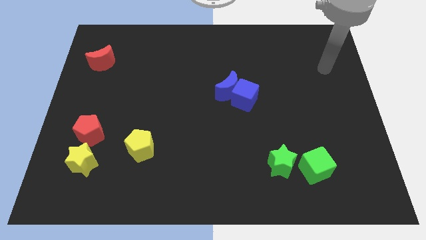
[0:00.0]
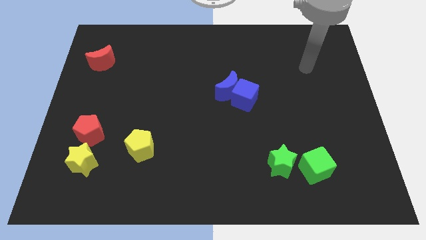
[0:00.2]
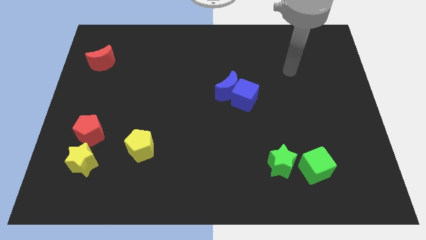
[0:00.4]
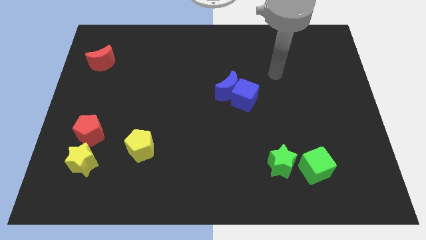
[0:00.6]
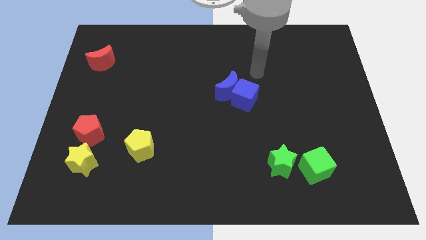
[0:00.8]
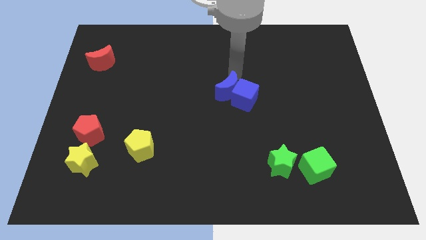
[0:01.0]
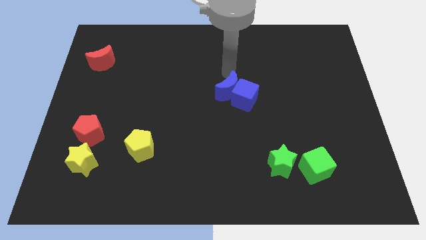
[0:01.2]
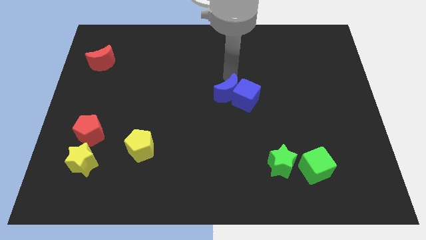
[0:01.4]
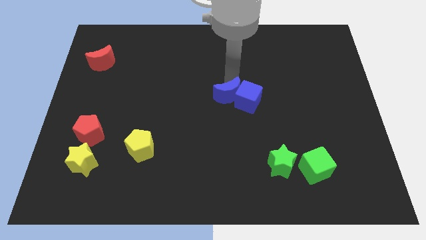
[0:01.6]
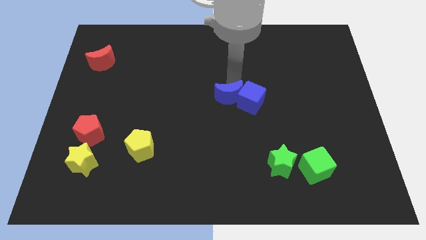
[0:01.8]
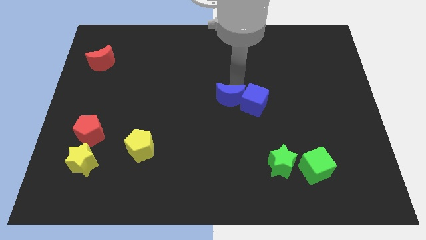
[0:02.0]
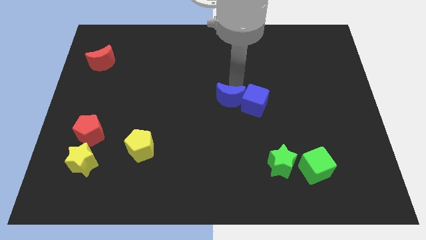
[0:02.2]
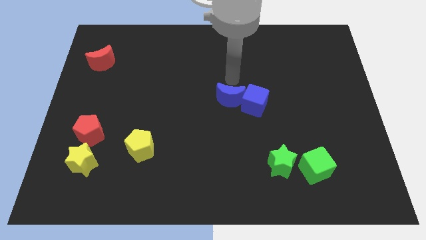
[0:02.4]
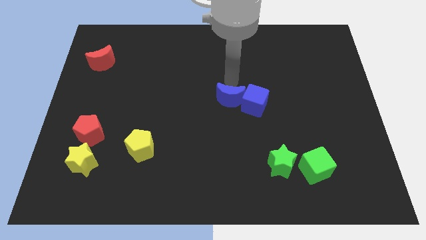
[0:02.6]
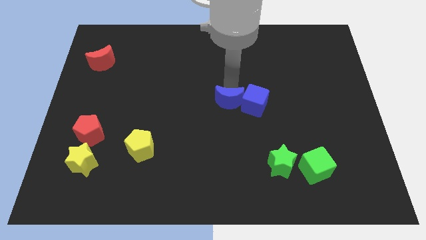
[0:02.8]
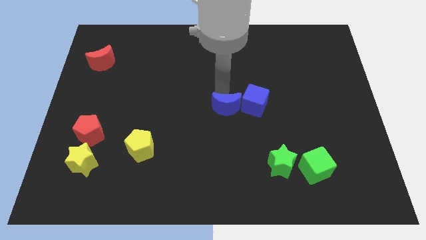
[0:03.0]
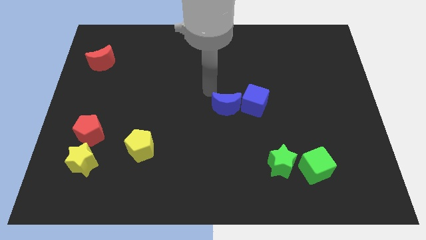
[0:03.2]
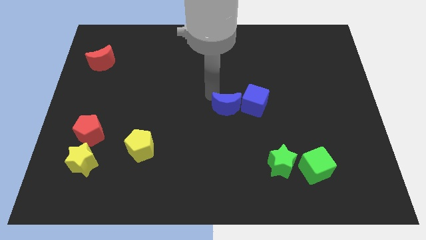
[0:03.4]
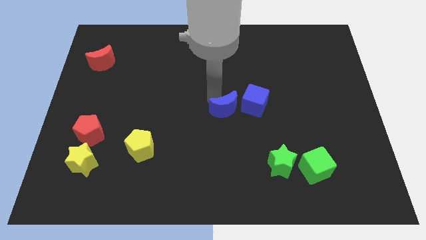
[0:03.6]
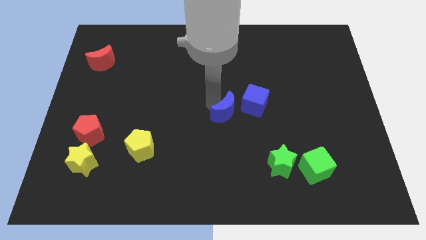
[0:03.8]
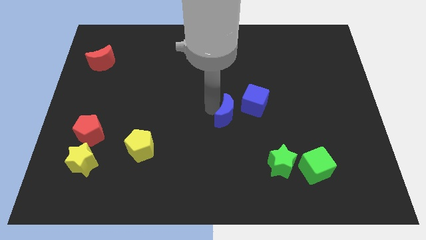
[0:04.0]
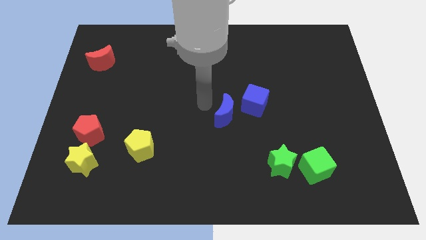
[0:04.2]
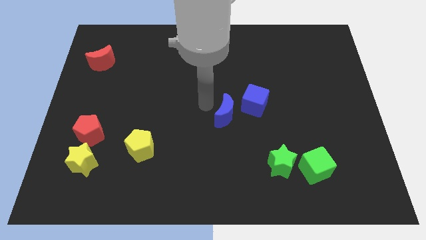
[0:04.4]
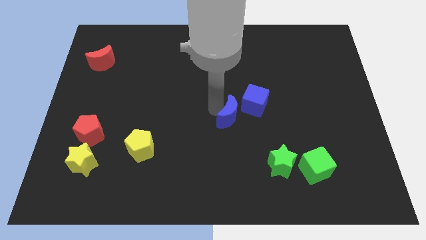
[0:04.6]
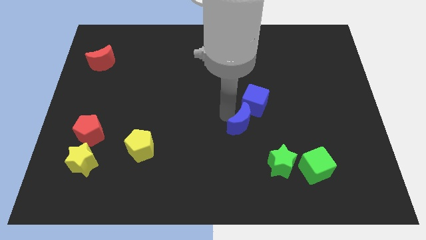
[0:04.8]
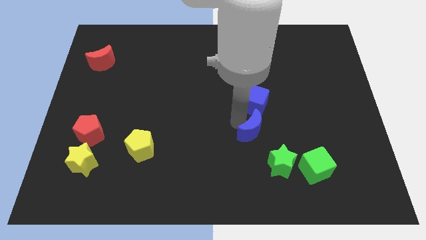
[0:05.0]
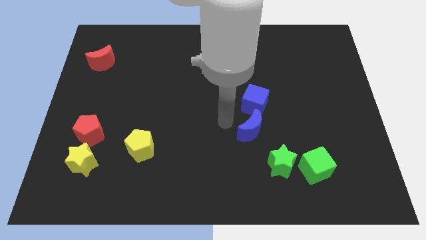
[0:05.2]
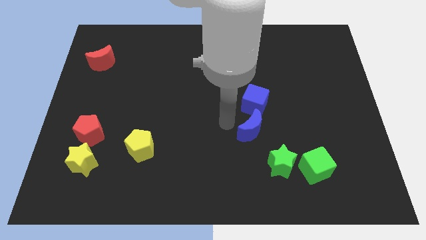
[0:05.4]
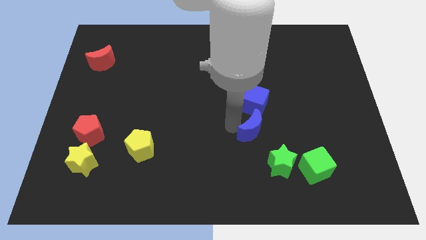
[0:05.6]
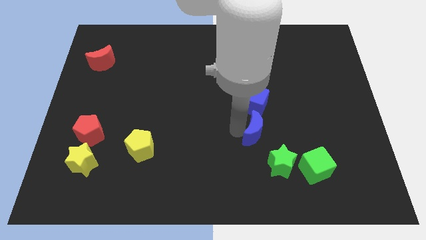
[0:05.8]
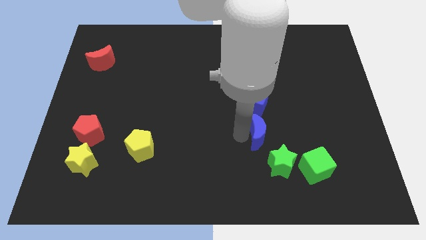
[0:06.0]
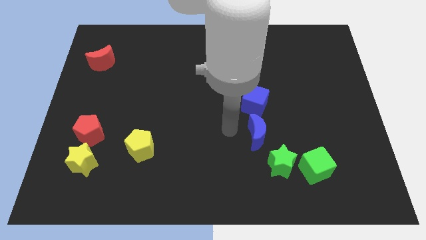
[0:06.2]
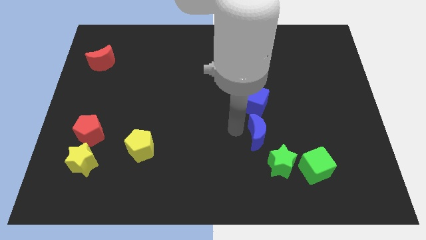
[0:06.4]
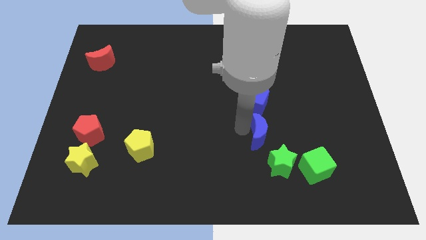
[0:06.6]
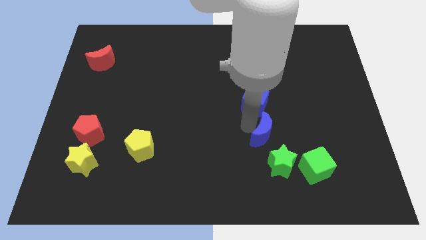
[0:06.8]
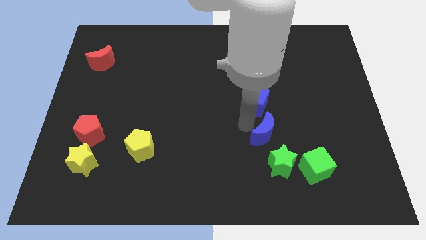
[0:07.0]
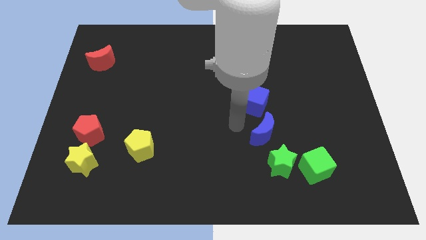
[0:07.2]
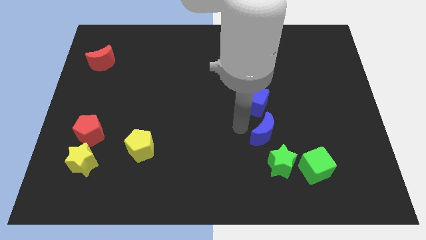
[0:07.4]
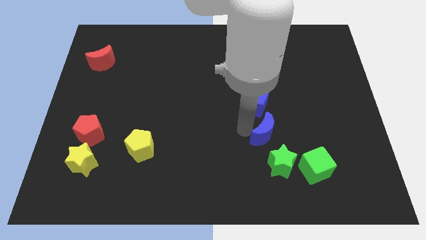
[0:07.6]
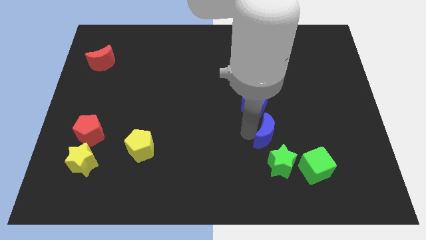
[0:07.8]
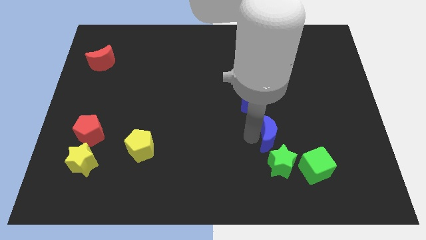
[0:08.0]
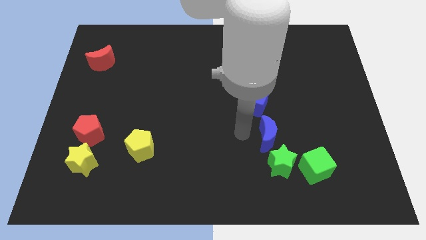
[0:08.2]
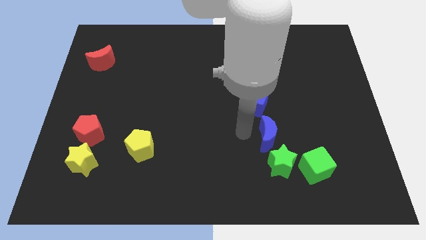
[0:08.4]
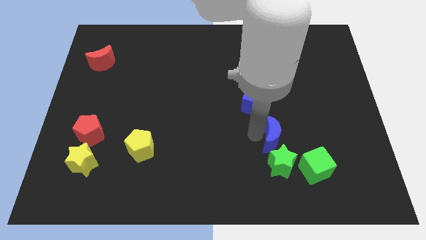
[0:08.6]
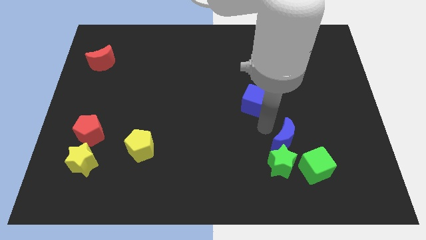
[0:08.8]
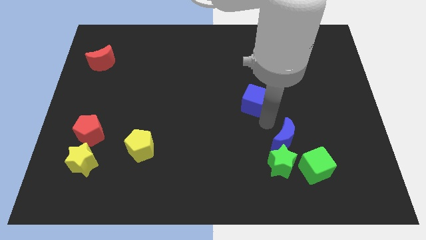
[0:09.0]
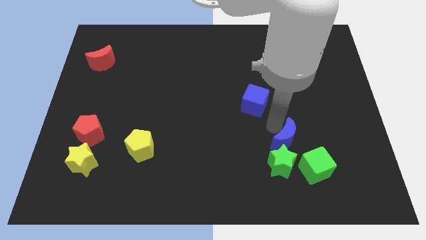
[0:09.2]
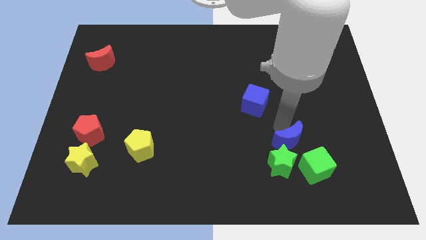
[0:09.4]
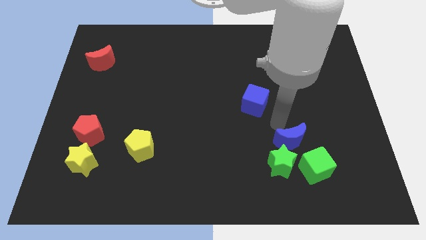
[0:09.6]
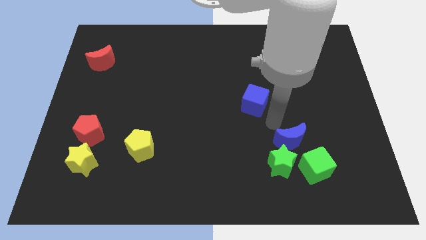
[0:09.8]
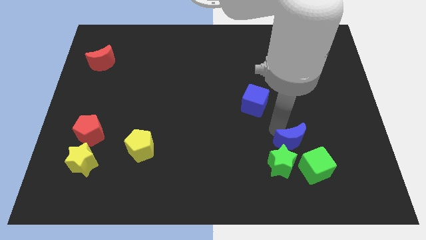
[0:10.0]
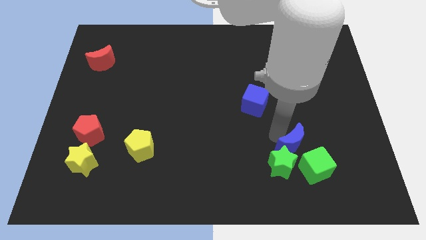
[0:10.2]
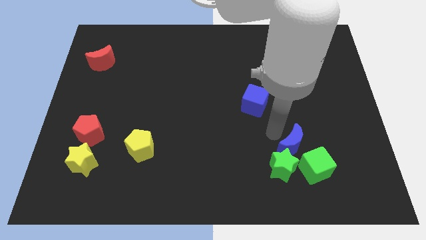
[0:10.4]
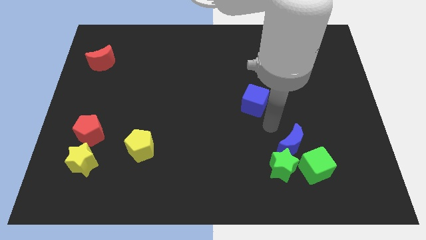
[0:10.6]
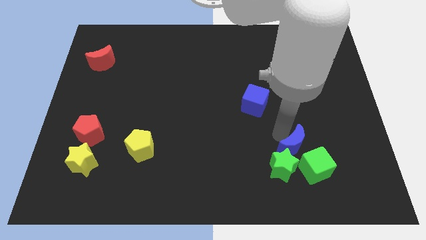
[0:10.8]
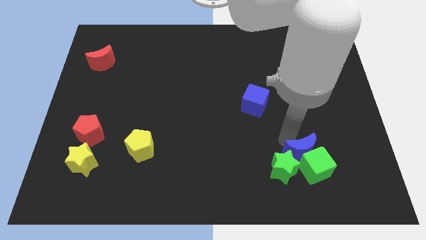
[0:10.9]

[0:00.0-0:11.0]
push the blue moon next to the green cube
